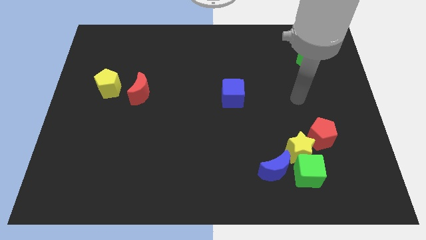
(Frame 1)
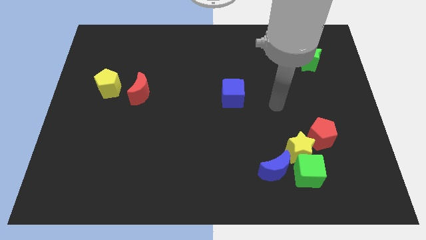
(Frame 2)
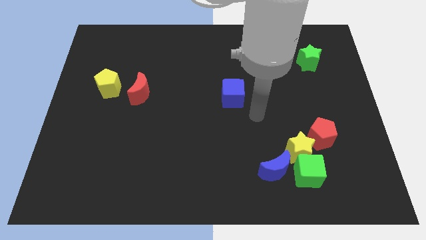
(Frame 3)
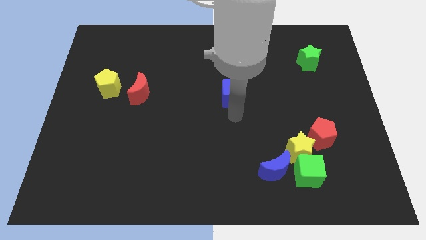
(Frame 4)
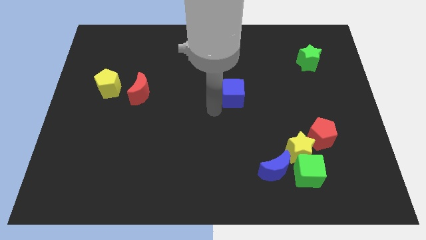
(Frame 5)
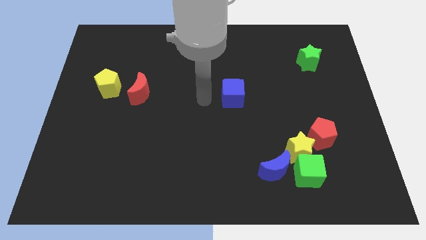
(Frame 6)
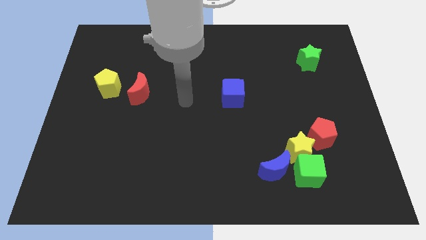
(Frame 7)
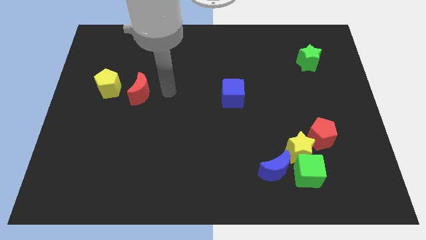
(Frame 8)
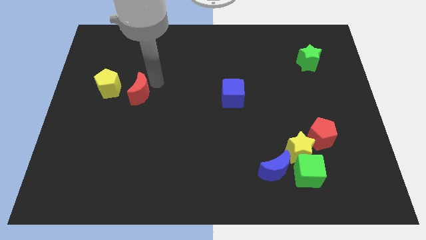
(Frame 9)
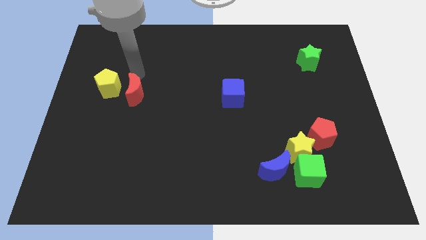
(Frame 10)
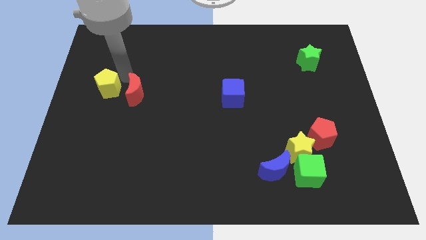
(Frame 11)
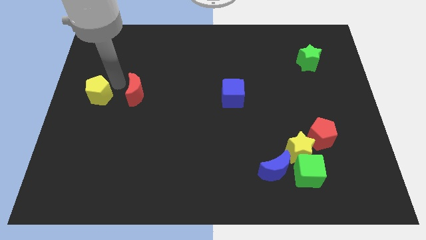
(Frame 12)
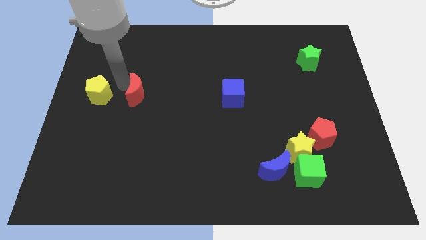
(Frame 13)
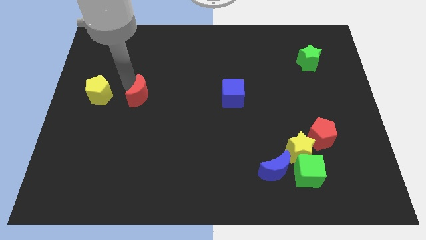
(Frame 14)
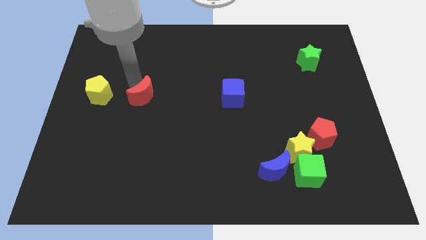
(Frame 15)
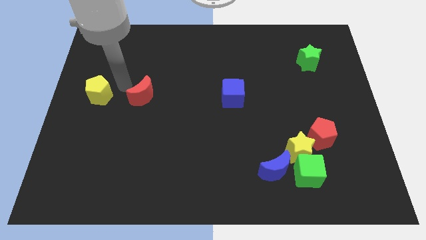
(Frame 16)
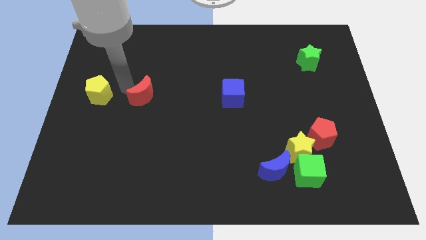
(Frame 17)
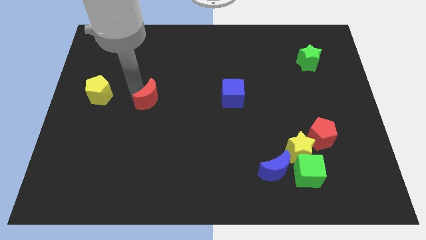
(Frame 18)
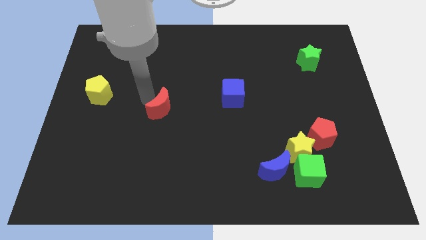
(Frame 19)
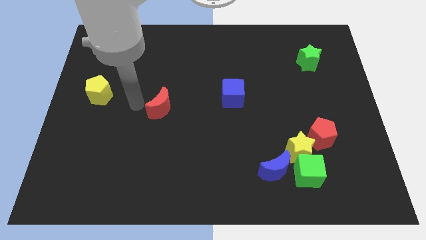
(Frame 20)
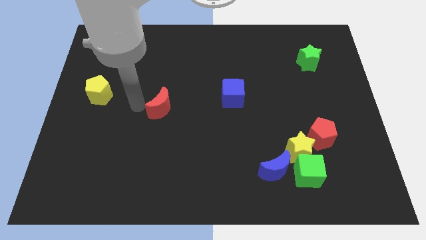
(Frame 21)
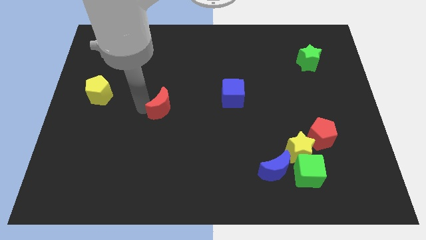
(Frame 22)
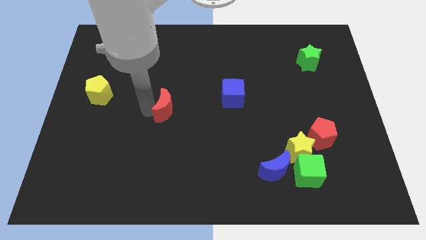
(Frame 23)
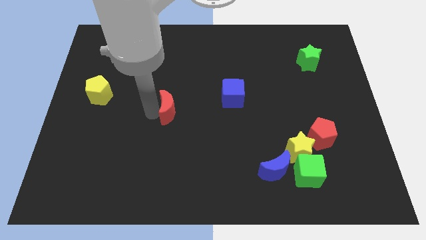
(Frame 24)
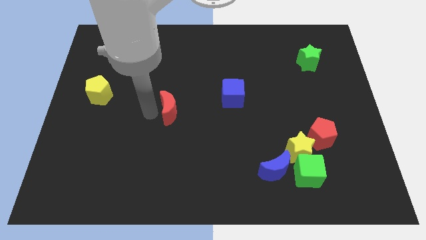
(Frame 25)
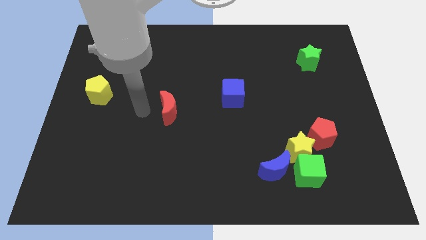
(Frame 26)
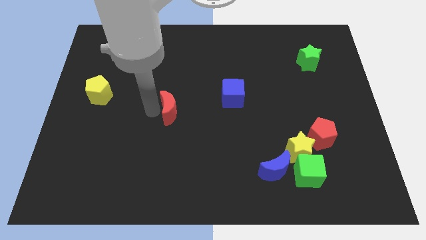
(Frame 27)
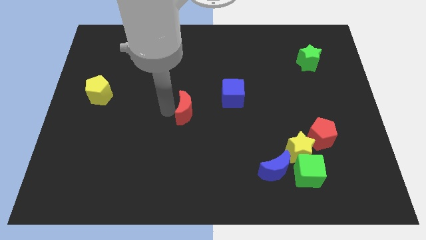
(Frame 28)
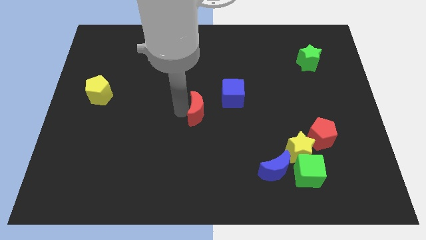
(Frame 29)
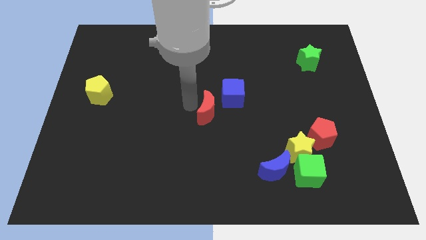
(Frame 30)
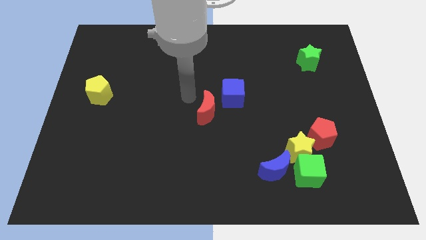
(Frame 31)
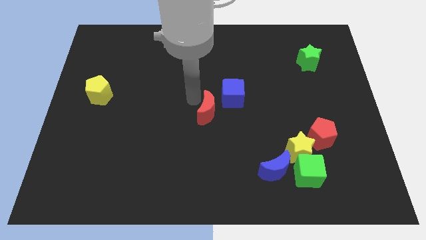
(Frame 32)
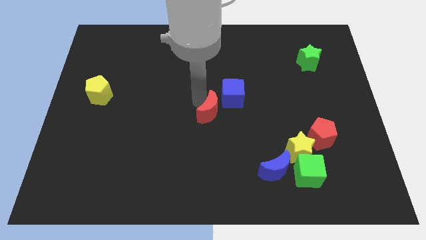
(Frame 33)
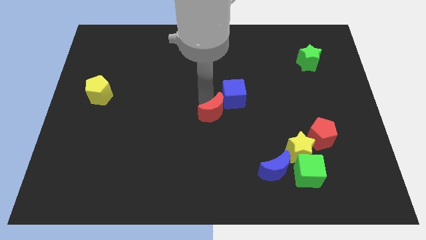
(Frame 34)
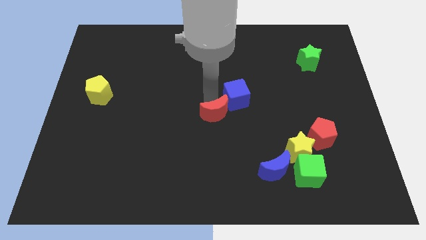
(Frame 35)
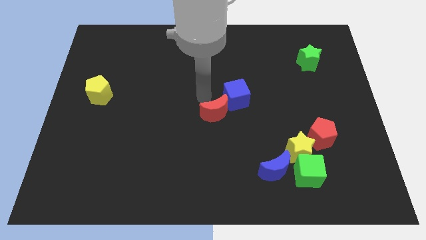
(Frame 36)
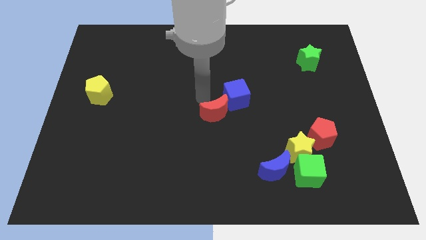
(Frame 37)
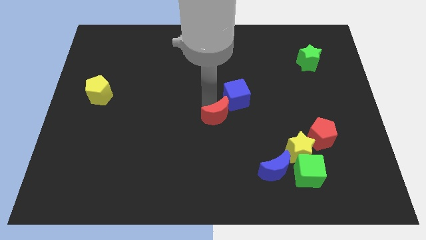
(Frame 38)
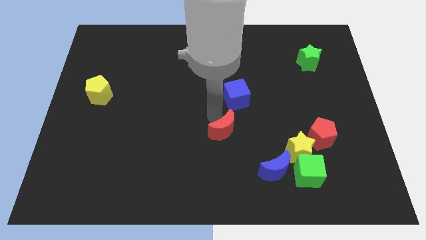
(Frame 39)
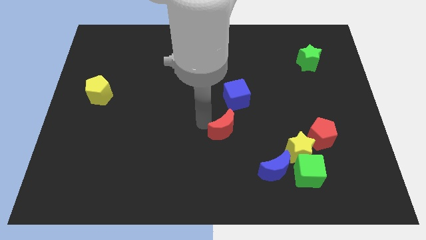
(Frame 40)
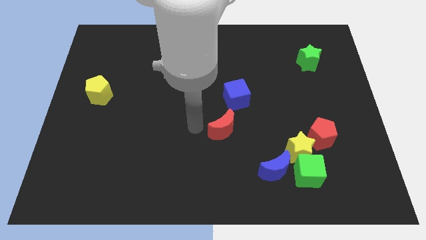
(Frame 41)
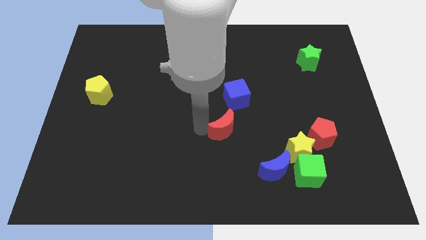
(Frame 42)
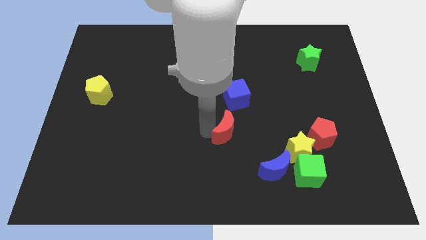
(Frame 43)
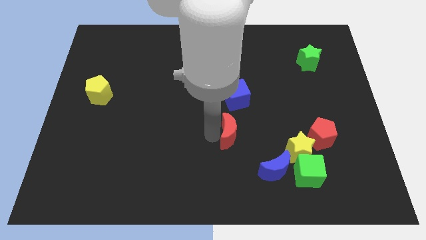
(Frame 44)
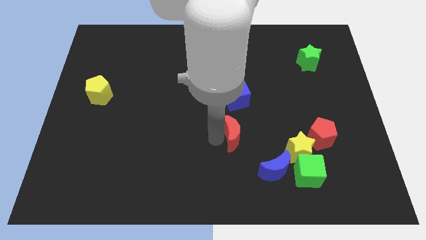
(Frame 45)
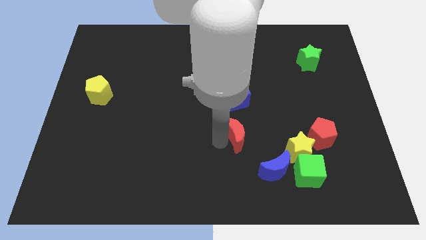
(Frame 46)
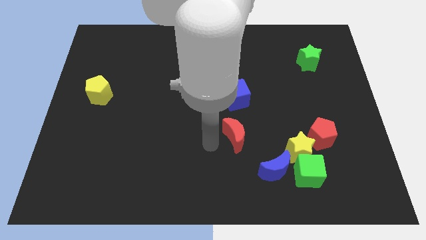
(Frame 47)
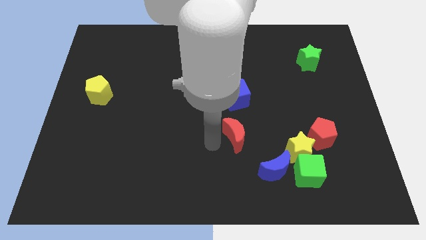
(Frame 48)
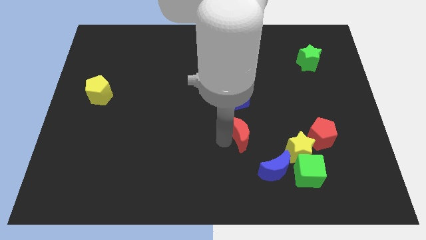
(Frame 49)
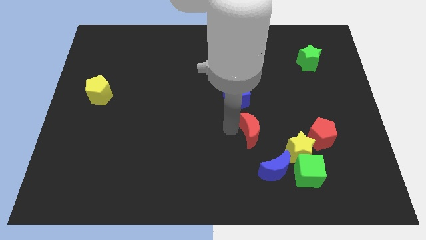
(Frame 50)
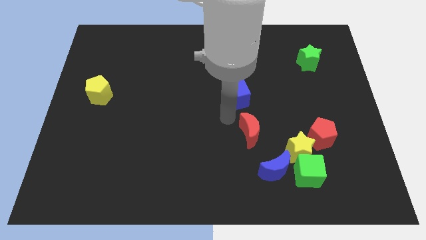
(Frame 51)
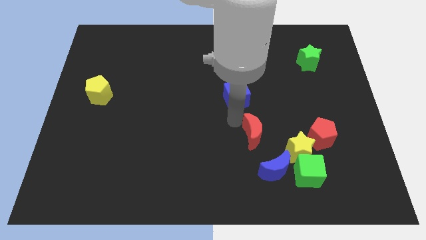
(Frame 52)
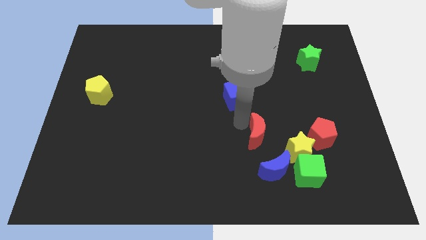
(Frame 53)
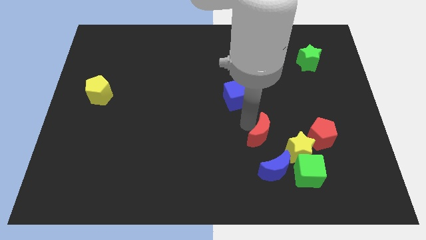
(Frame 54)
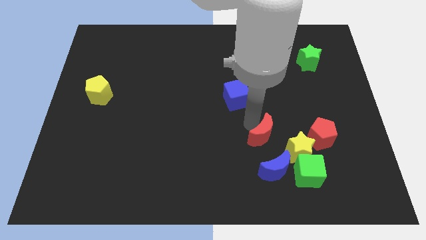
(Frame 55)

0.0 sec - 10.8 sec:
push the red moon to the top left side of the green cube

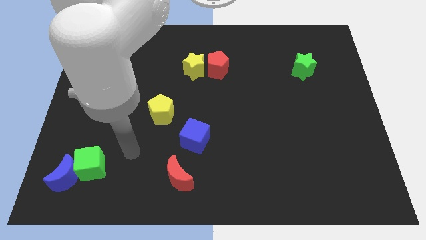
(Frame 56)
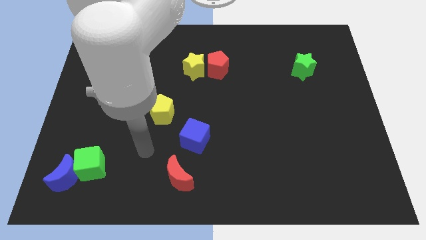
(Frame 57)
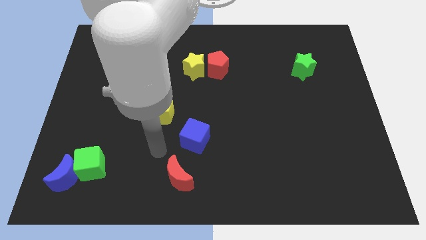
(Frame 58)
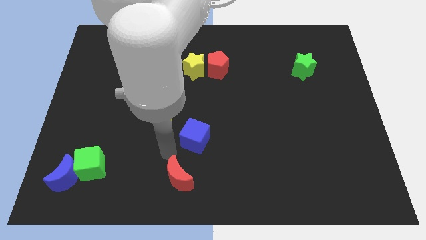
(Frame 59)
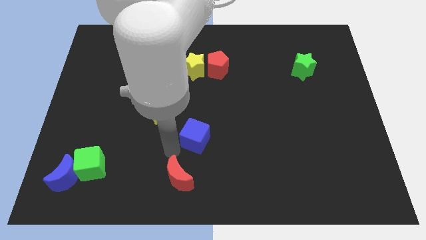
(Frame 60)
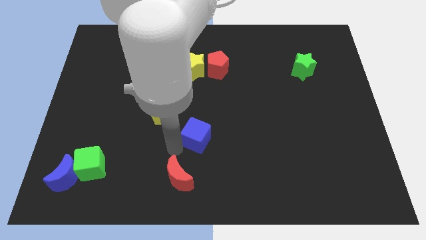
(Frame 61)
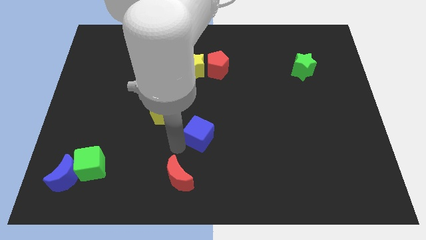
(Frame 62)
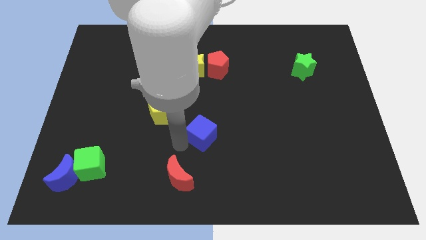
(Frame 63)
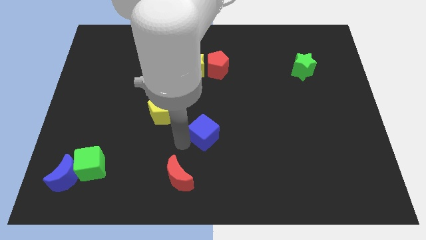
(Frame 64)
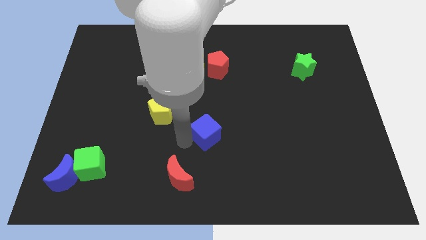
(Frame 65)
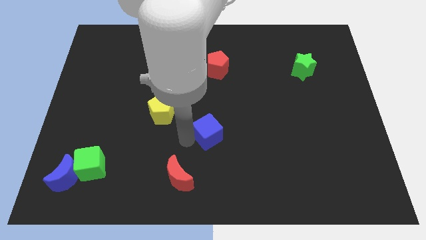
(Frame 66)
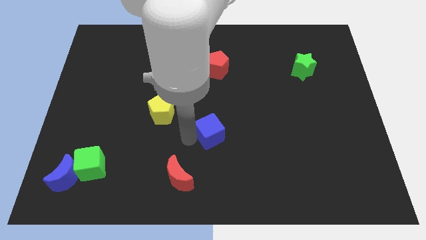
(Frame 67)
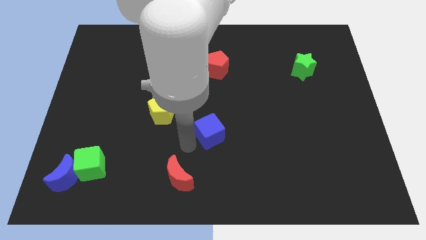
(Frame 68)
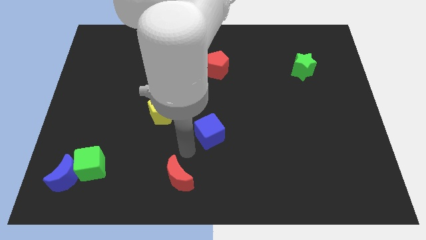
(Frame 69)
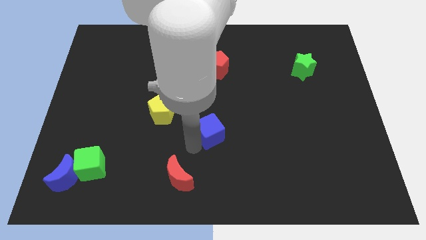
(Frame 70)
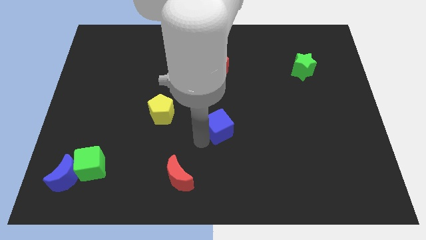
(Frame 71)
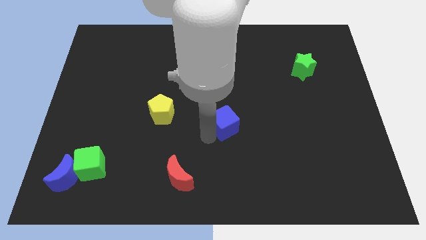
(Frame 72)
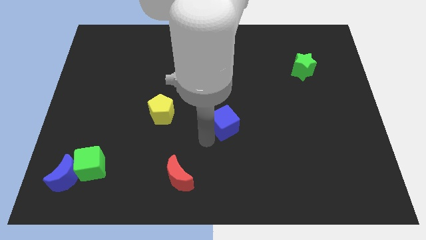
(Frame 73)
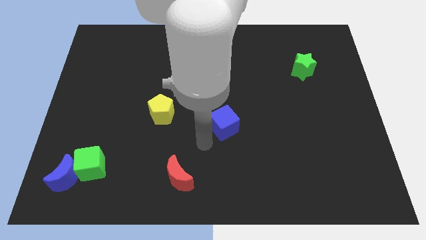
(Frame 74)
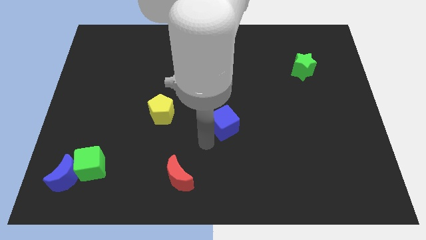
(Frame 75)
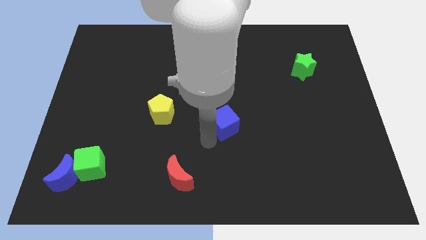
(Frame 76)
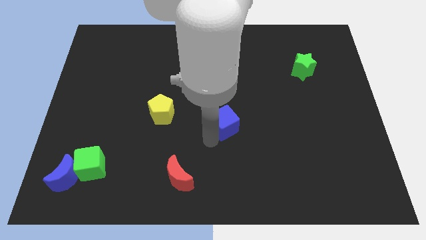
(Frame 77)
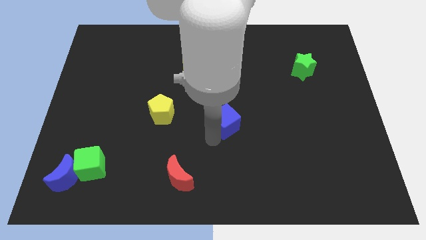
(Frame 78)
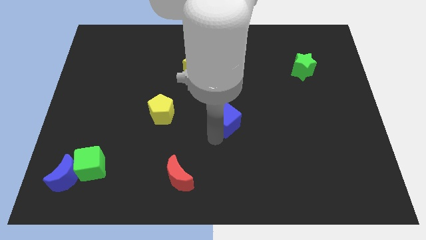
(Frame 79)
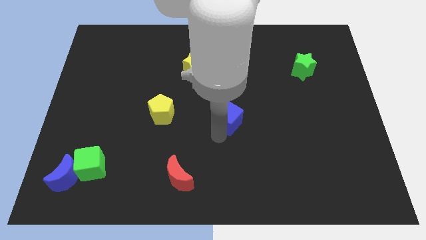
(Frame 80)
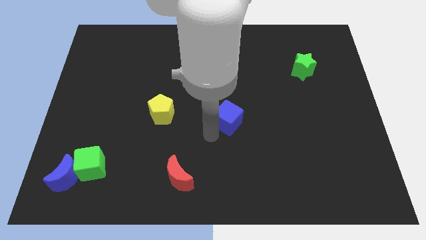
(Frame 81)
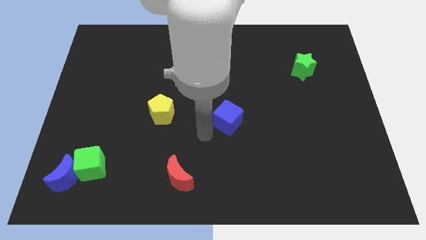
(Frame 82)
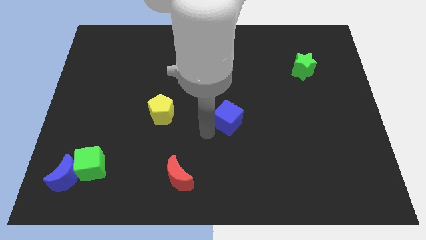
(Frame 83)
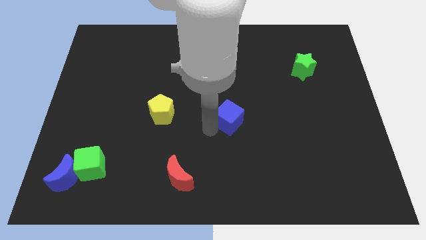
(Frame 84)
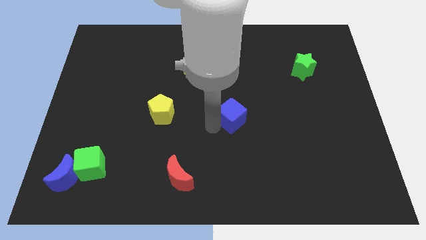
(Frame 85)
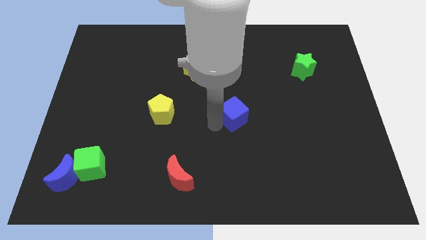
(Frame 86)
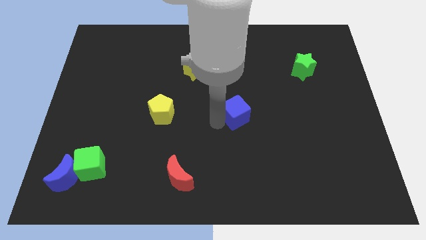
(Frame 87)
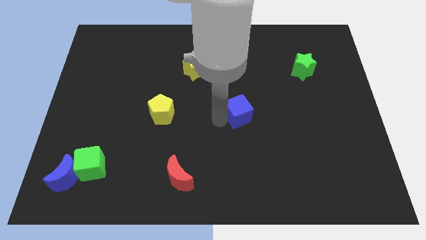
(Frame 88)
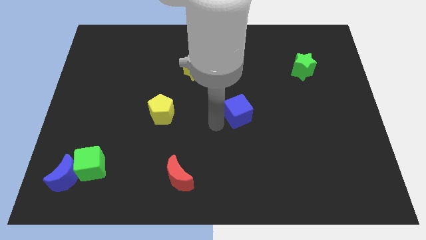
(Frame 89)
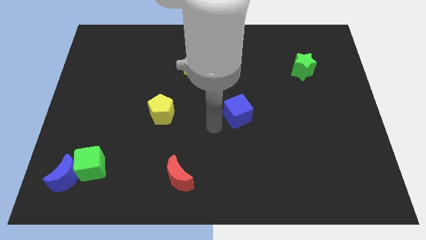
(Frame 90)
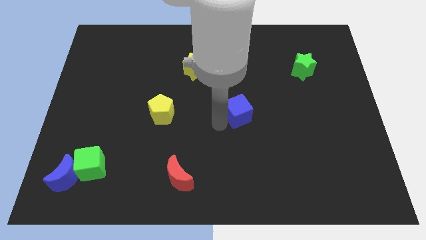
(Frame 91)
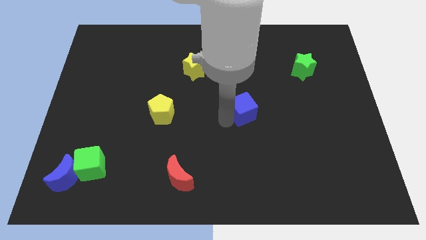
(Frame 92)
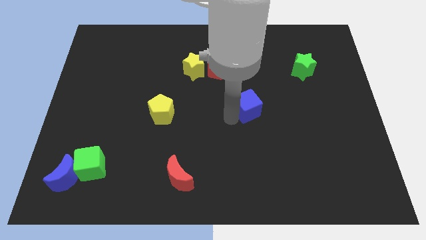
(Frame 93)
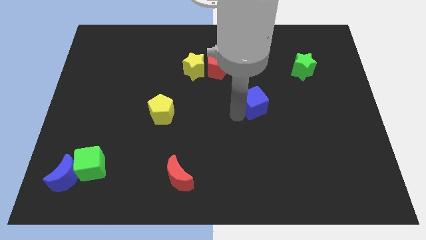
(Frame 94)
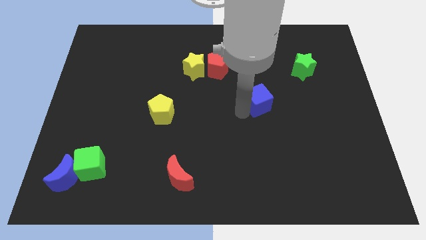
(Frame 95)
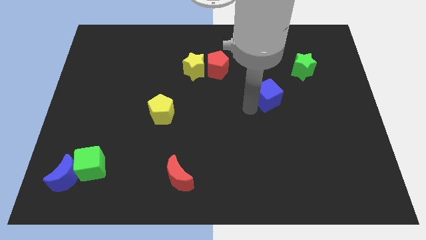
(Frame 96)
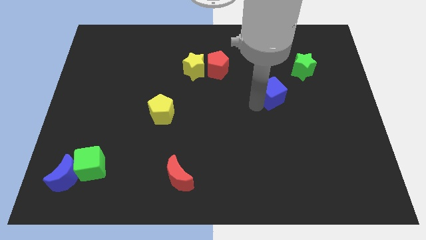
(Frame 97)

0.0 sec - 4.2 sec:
slide the blue cube to the bottom left of the green star
